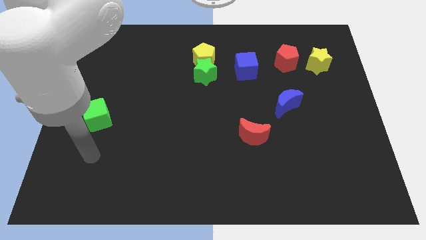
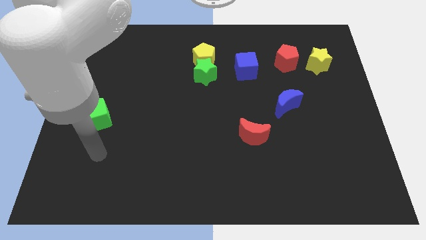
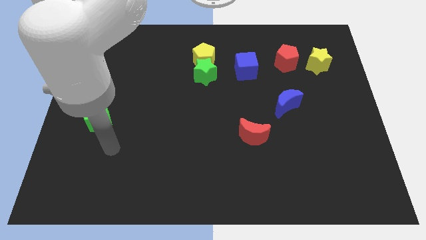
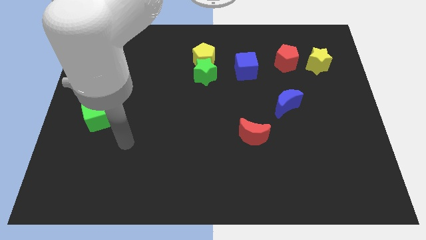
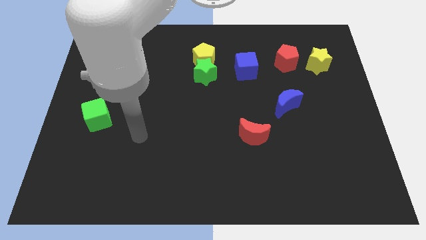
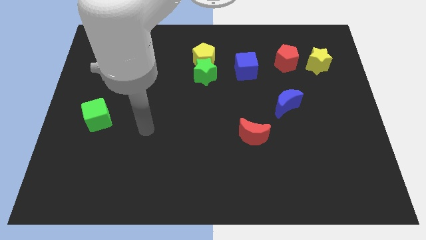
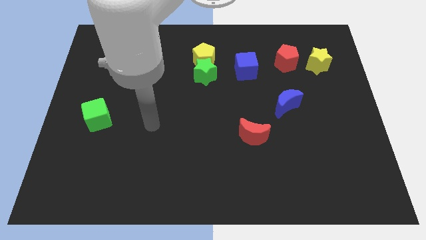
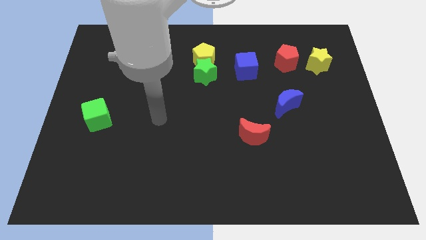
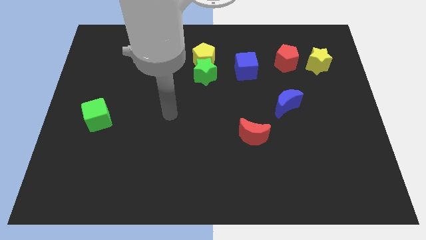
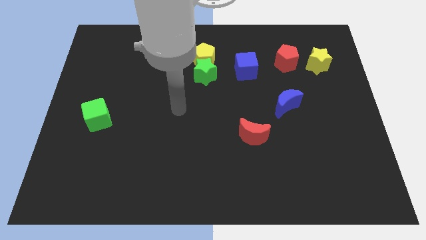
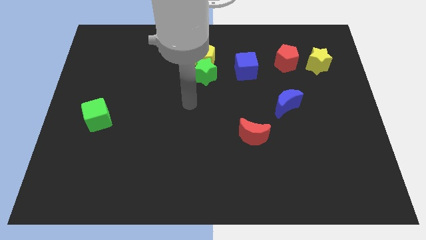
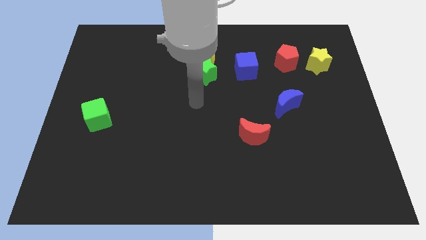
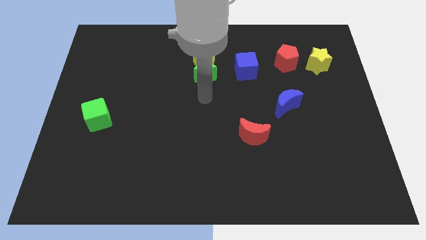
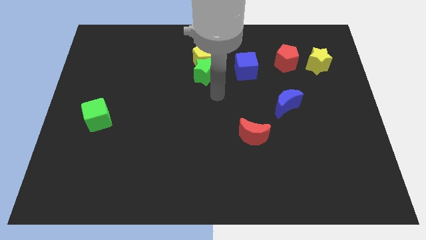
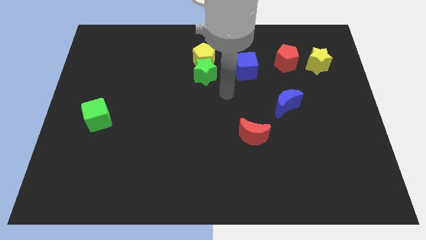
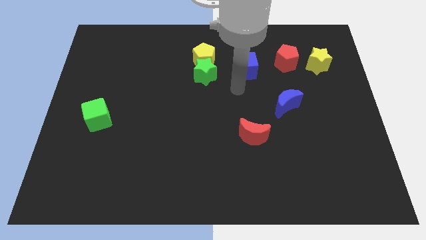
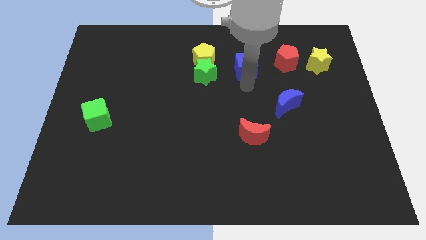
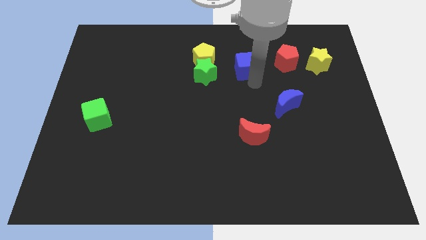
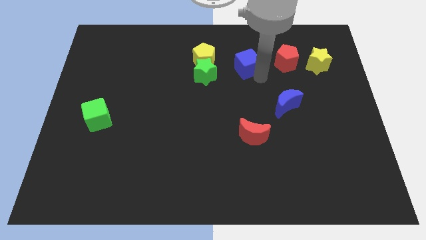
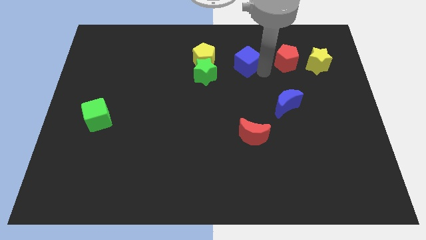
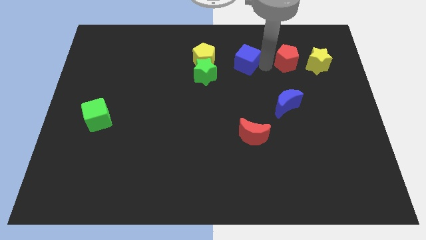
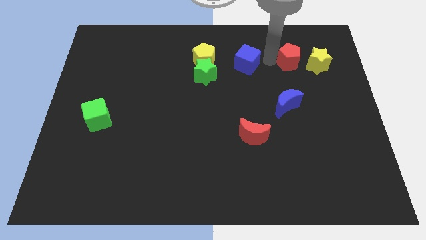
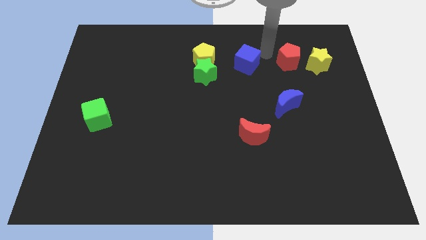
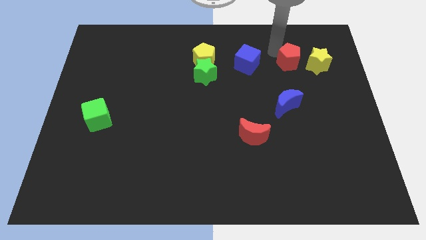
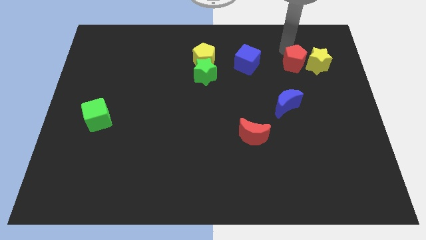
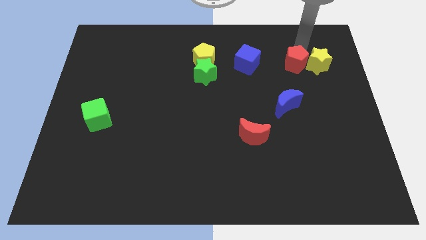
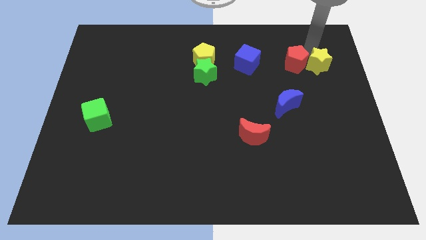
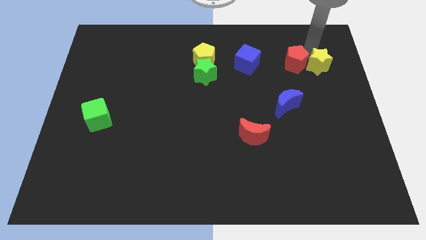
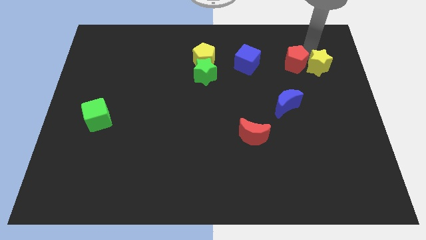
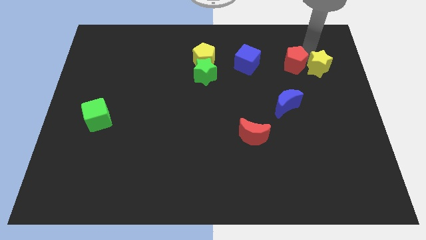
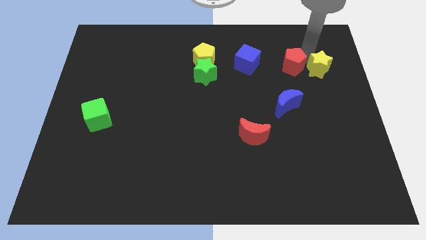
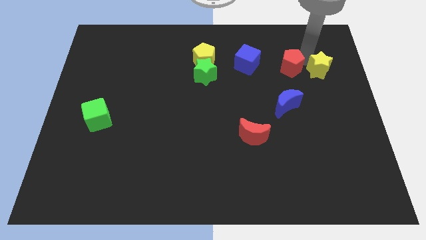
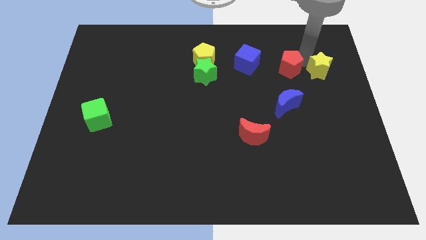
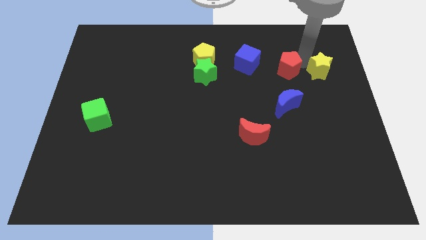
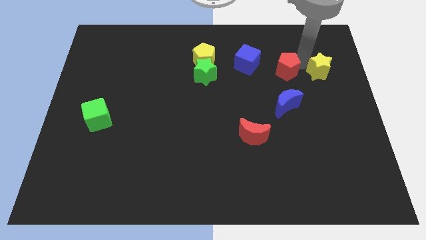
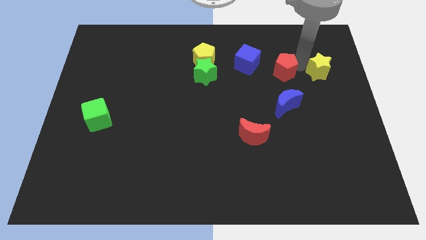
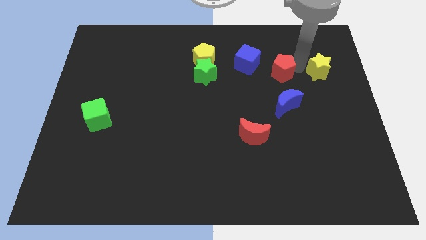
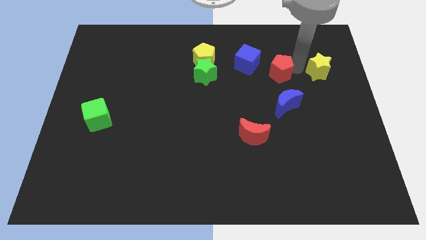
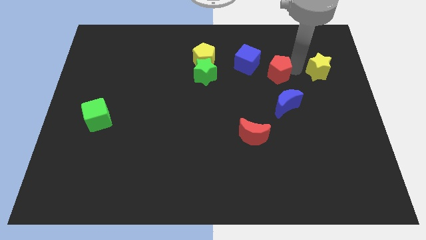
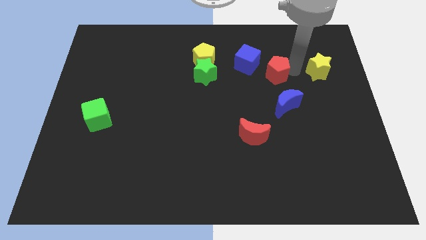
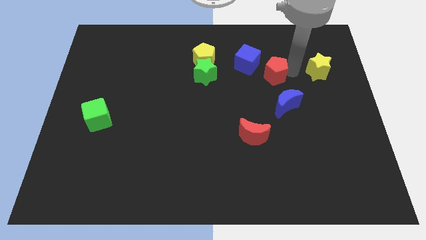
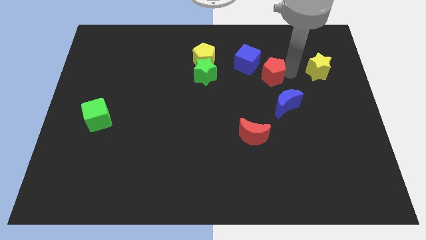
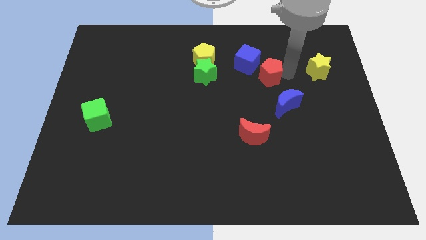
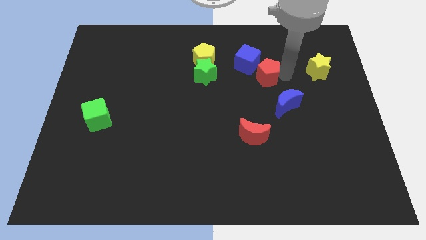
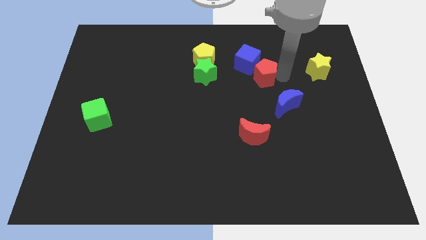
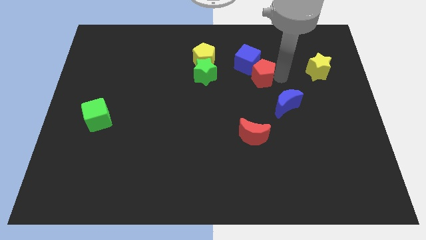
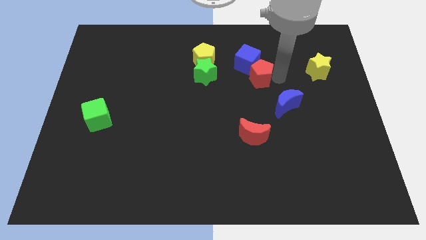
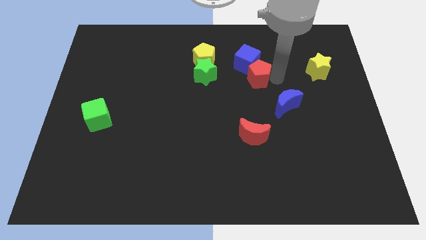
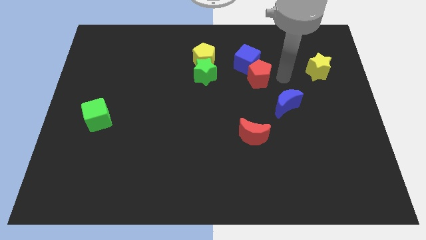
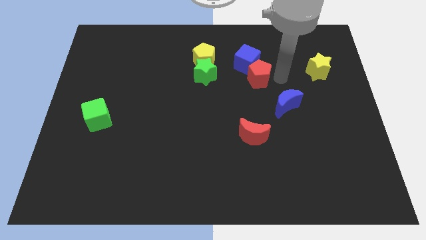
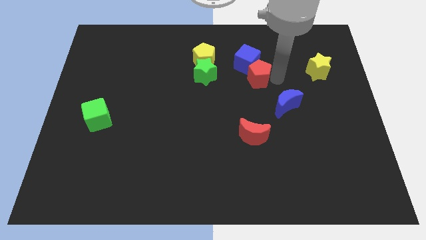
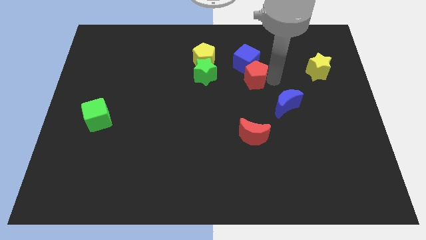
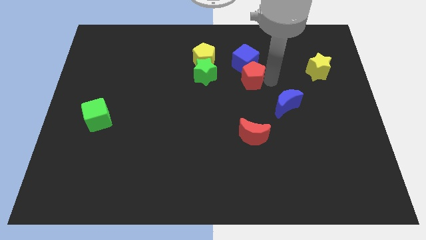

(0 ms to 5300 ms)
slide the red pentagon to the bottom left side of the blue cube
